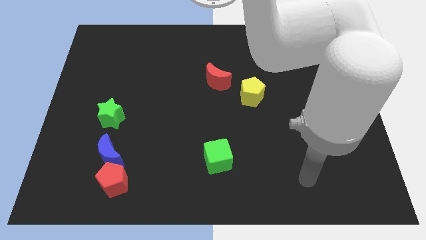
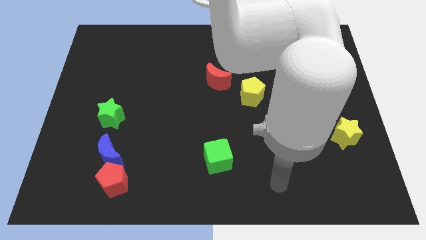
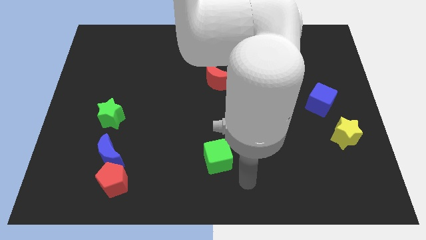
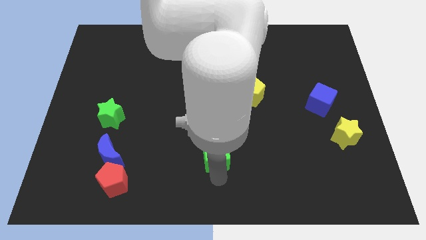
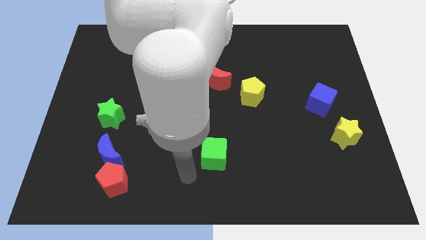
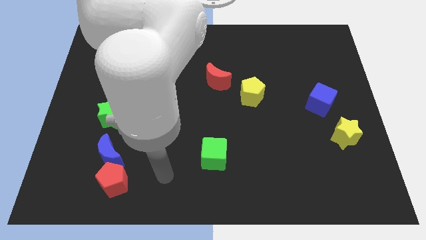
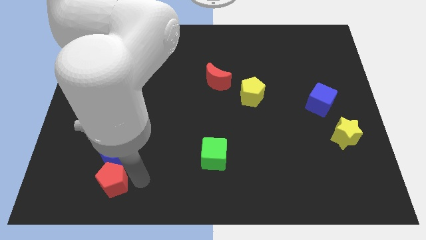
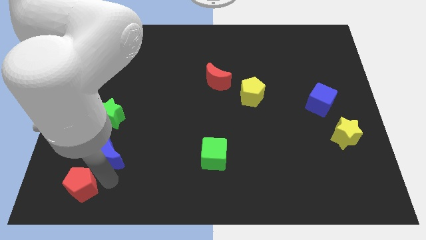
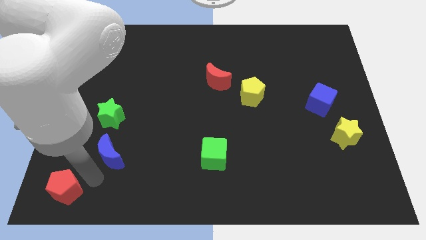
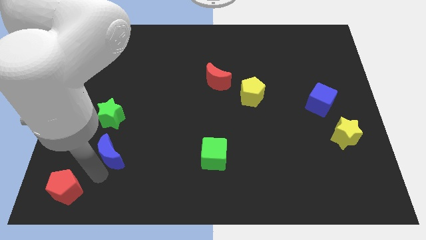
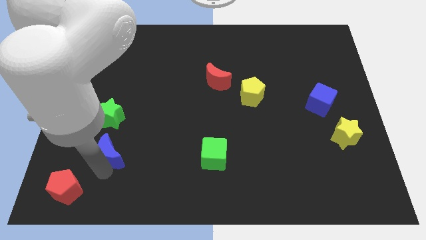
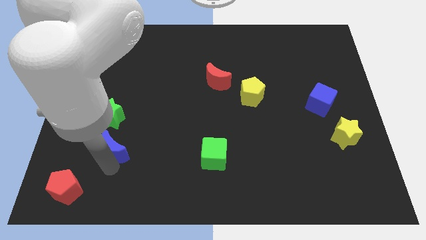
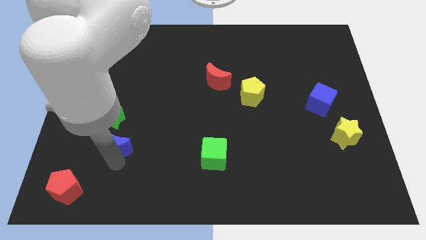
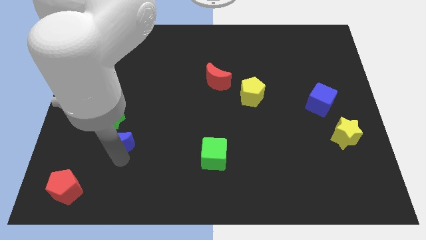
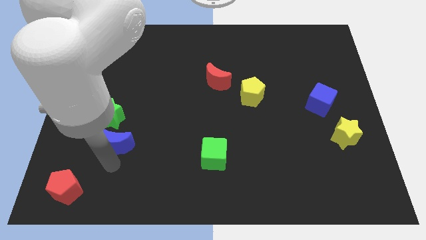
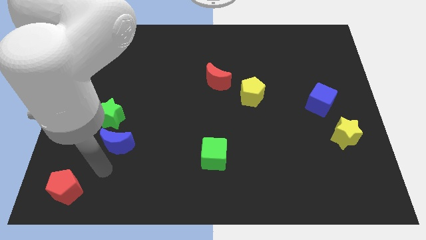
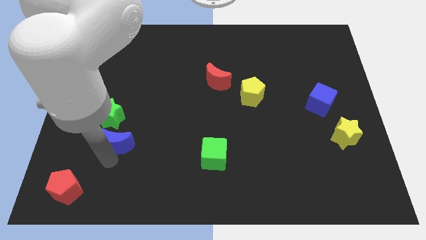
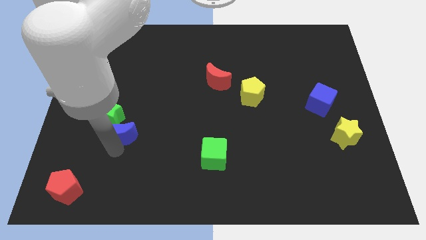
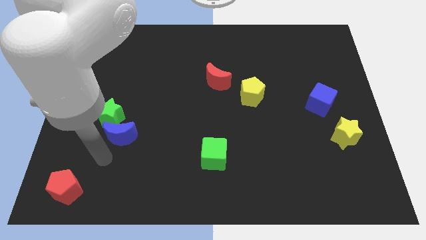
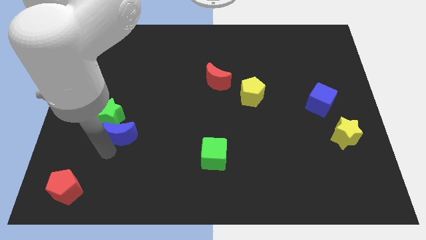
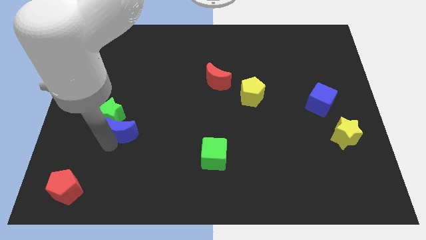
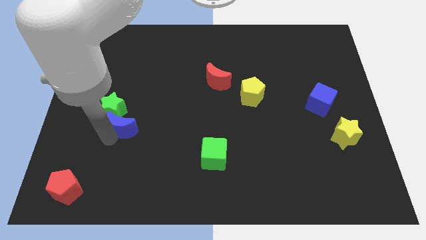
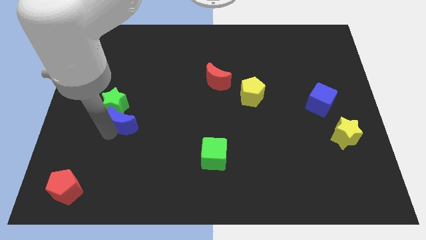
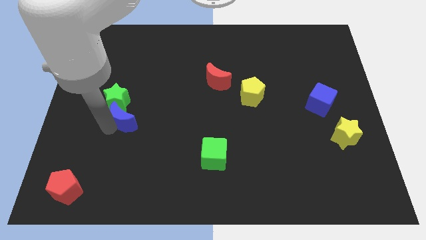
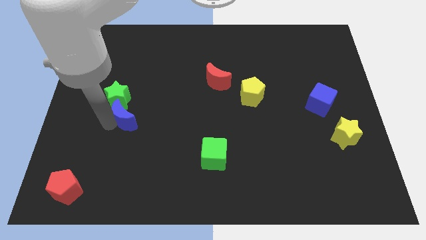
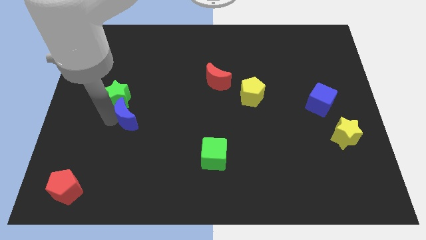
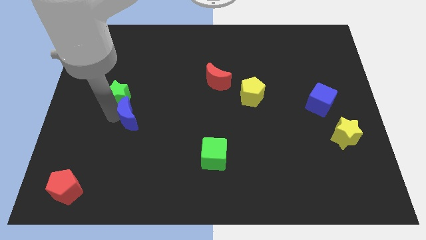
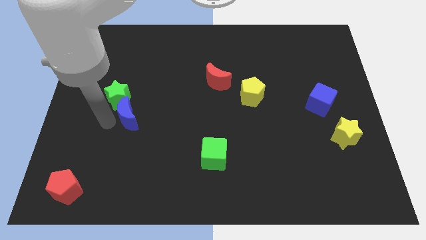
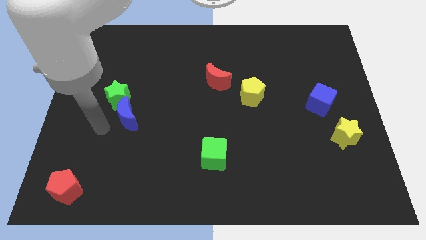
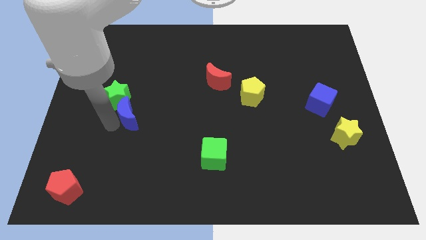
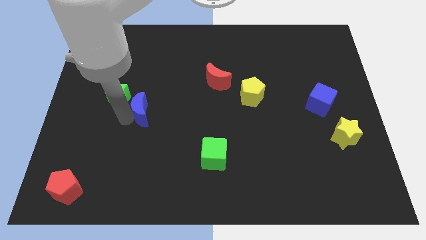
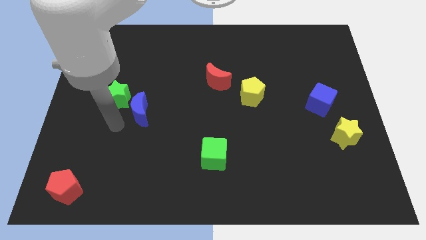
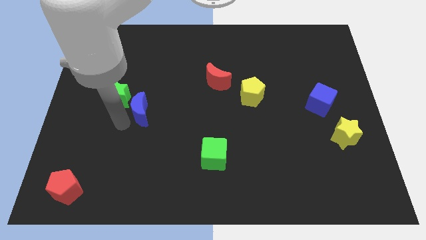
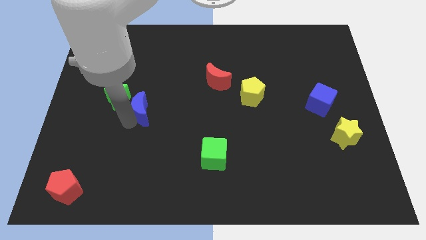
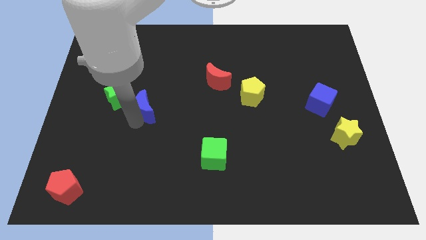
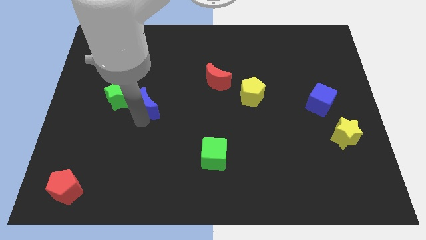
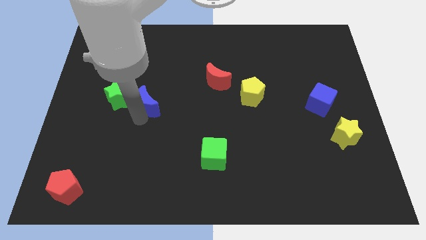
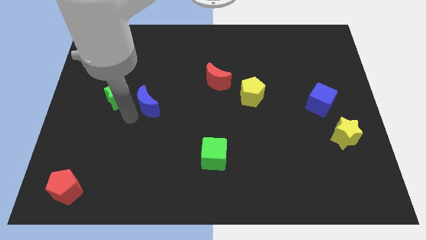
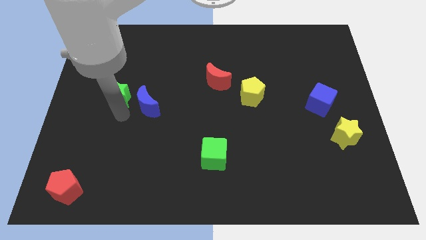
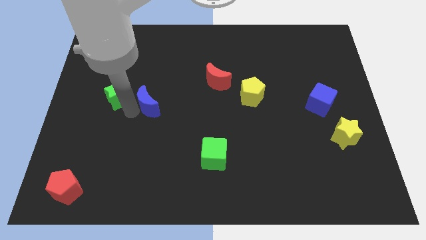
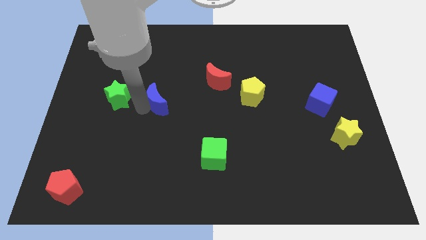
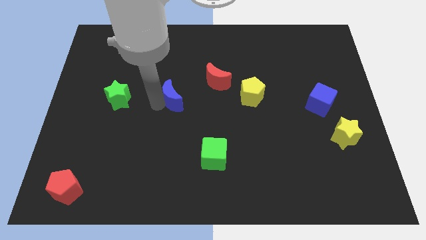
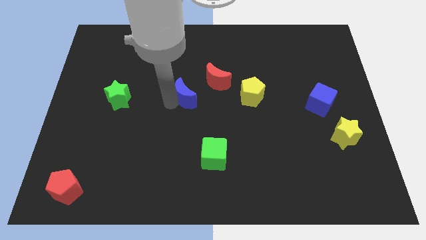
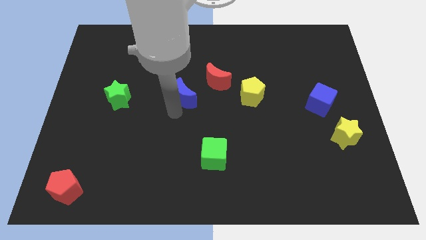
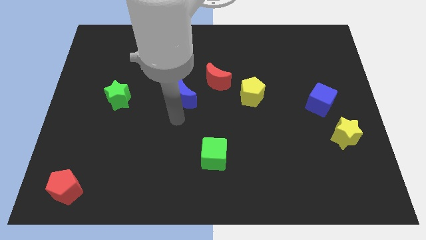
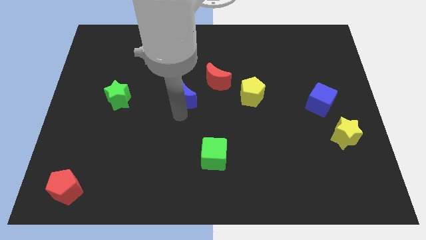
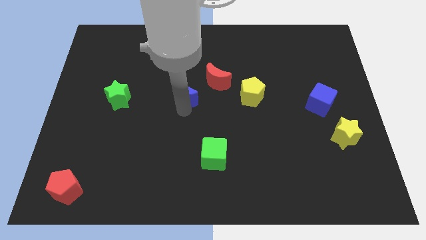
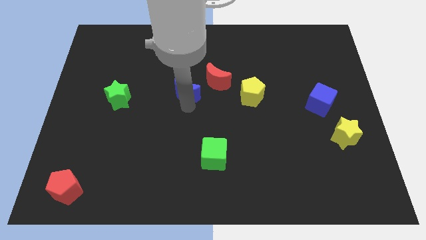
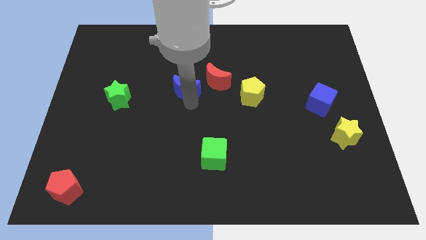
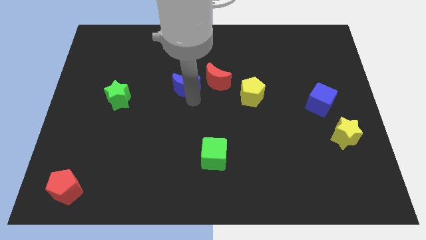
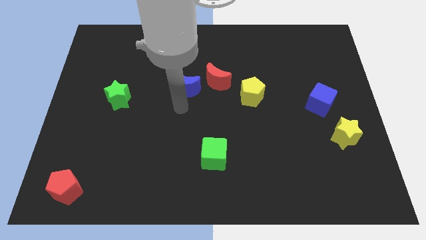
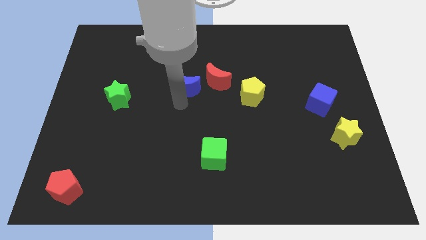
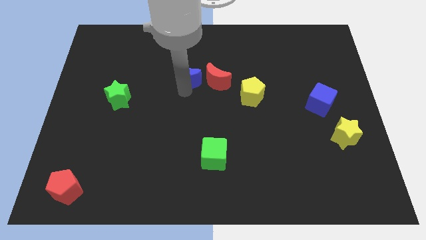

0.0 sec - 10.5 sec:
move the blue moon diagonally up and to the left of the red moon

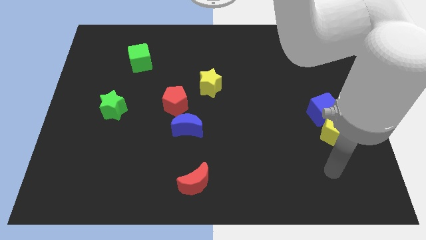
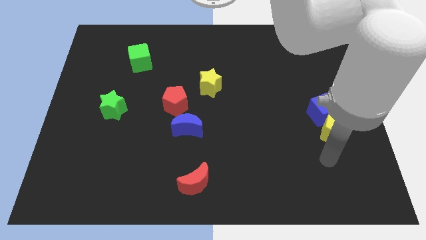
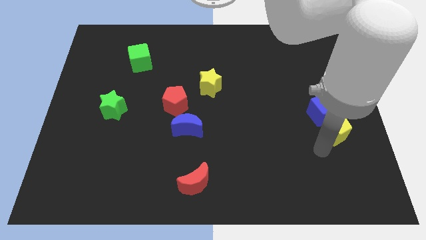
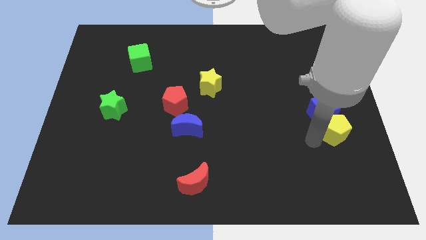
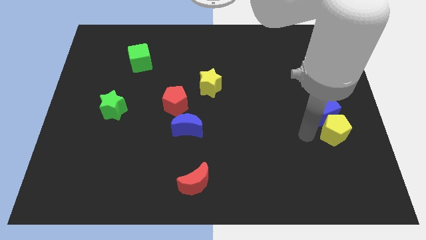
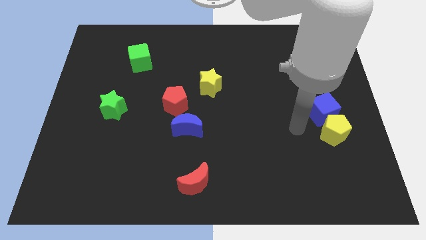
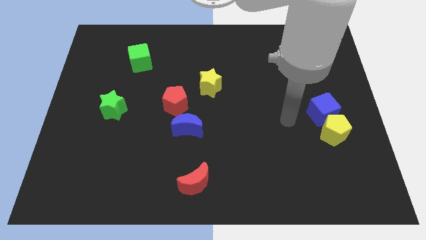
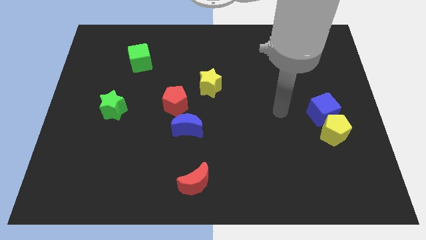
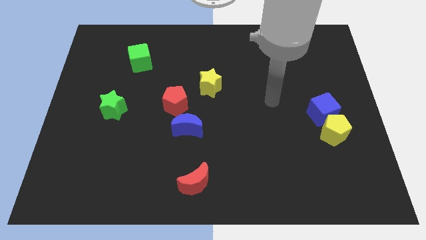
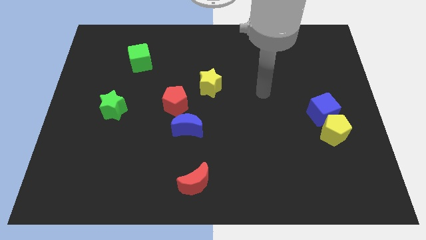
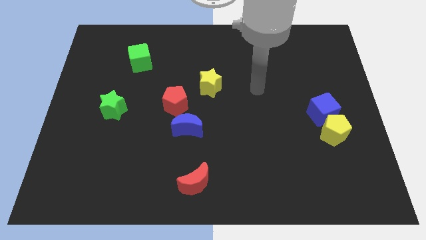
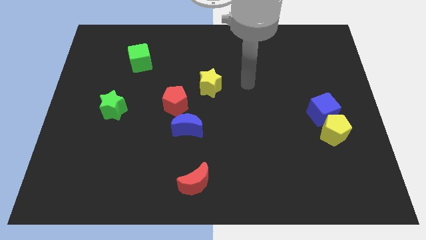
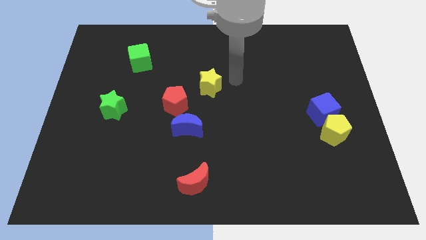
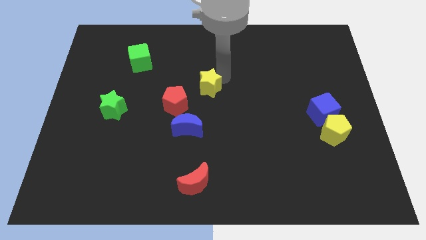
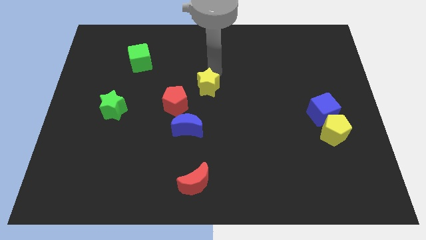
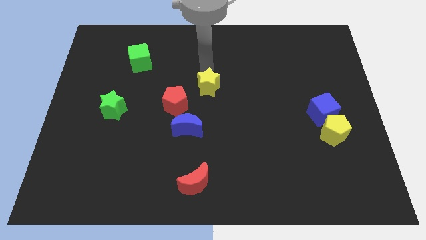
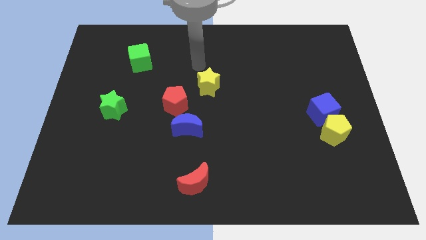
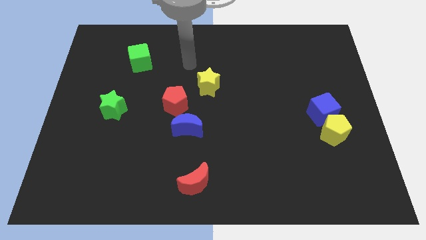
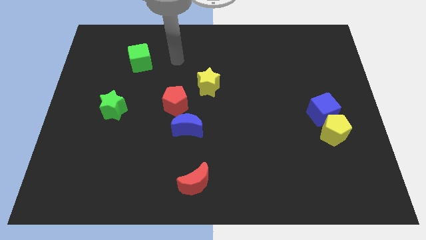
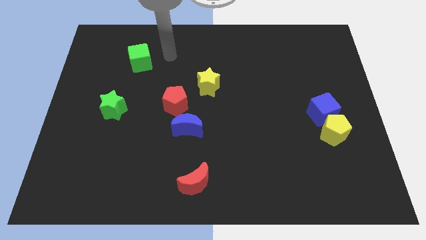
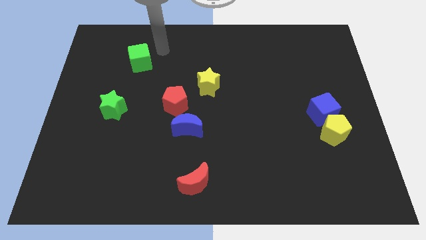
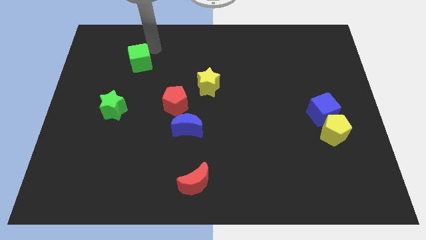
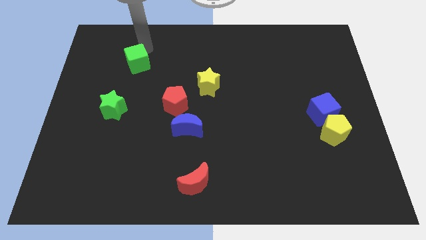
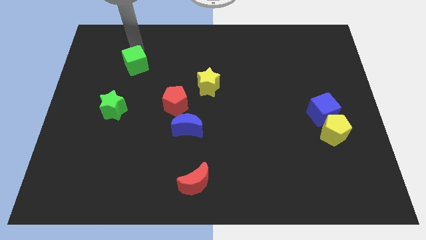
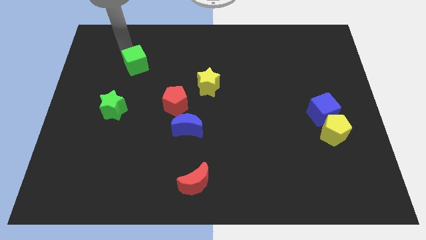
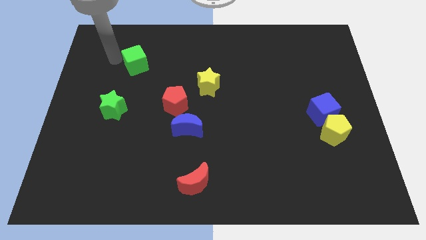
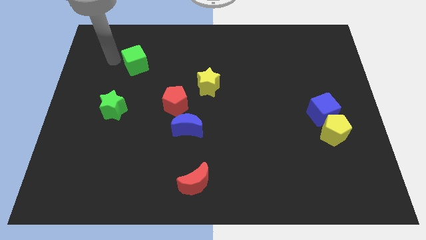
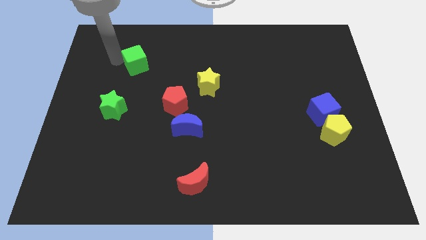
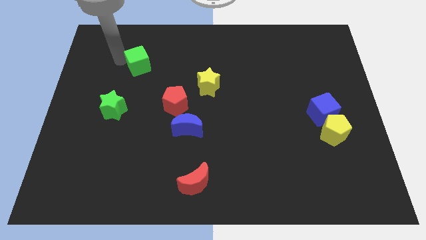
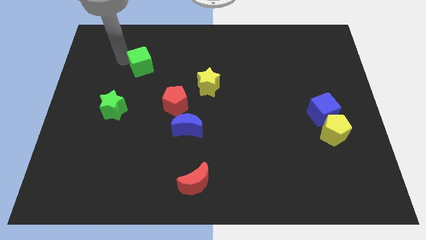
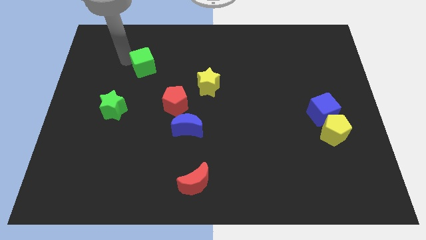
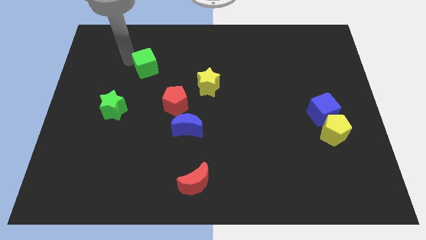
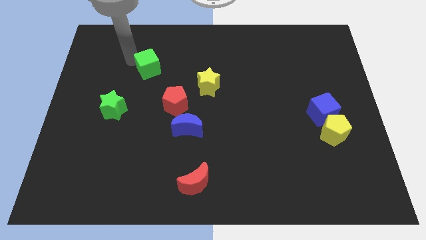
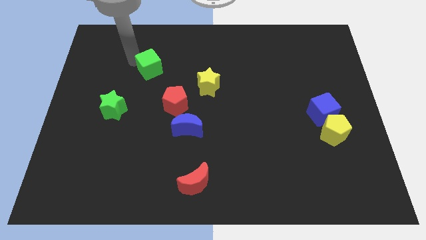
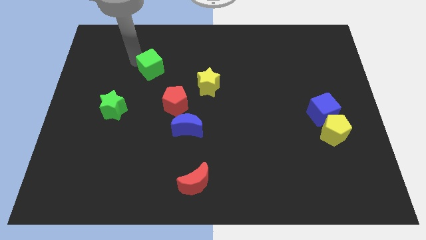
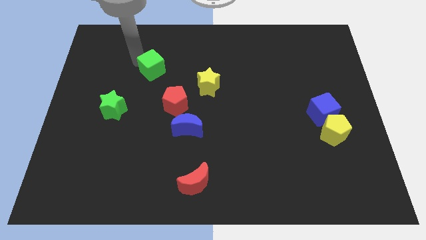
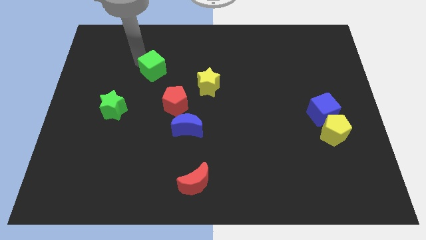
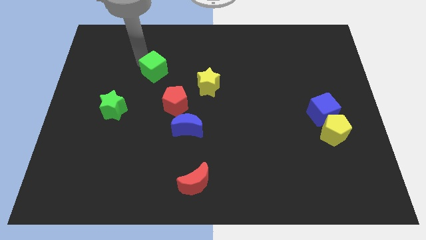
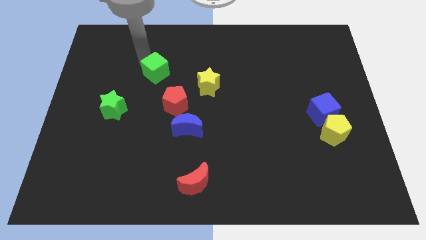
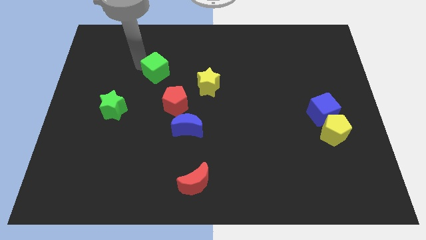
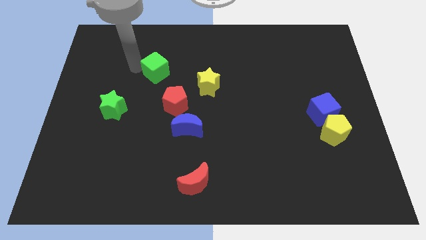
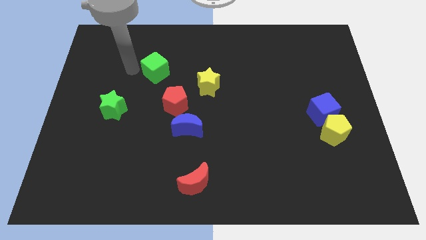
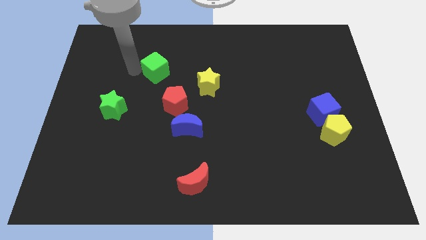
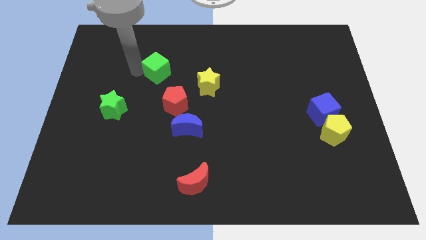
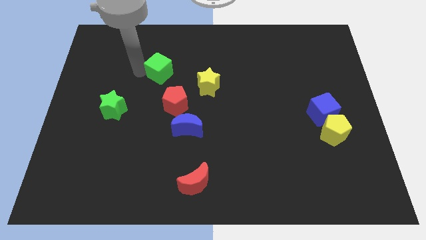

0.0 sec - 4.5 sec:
put the green cube to the top of the red pentagon
